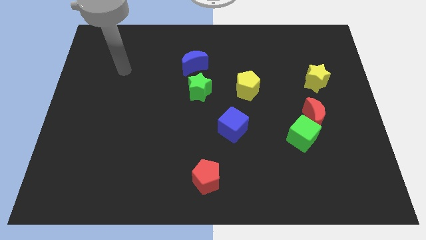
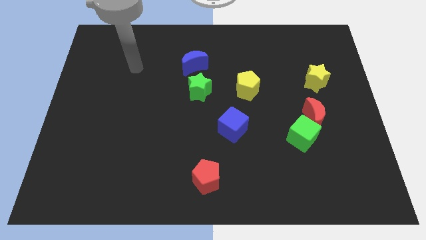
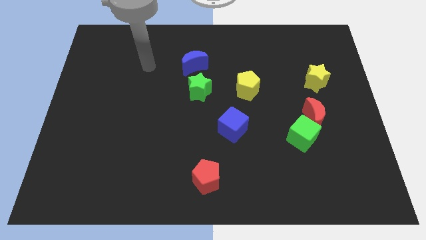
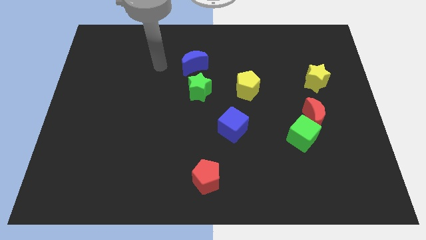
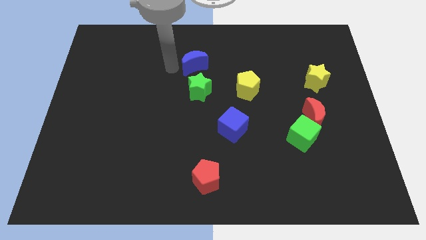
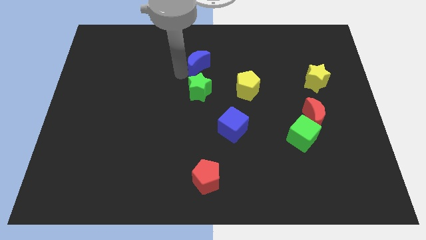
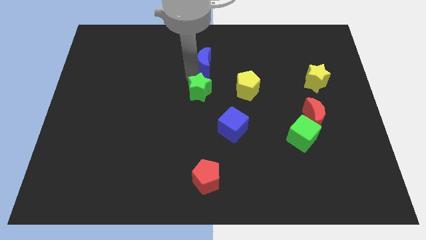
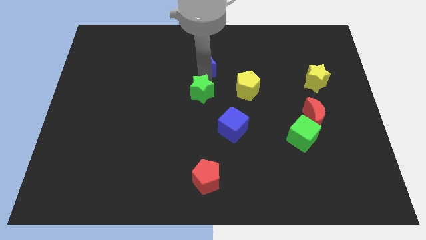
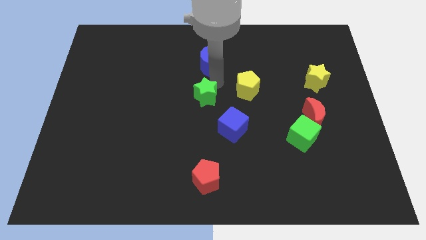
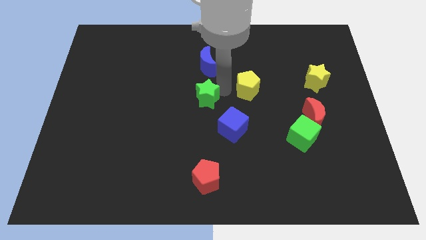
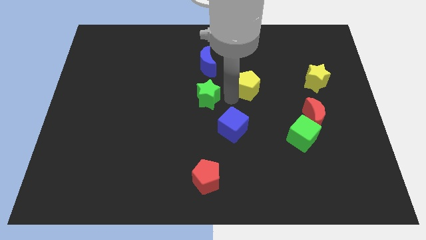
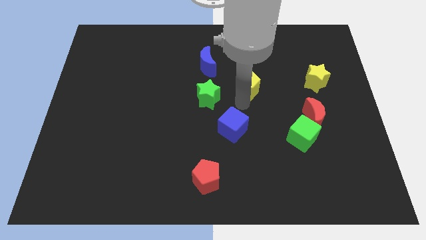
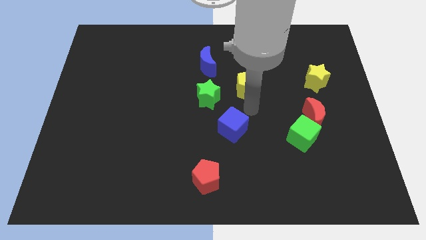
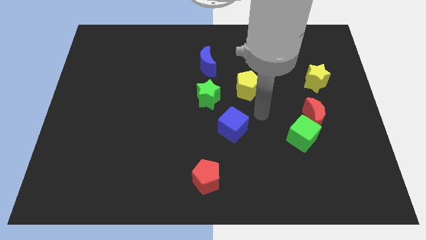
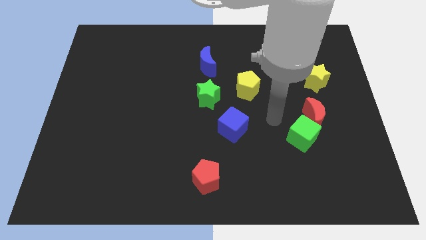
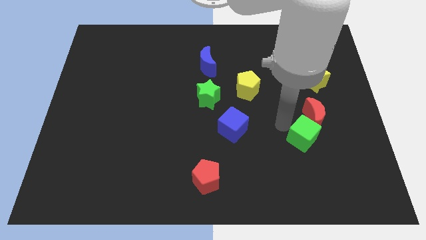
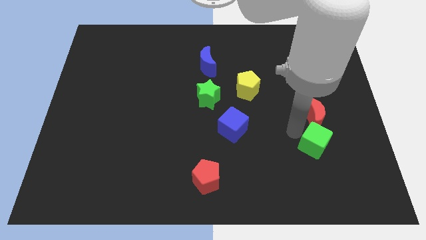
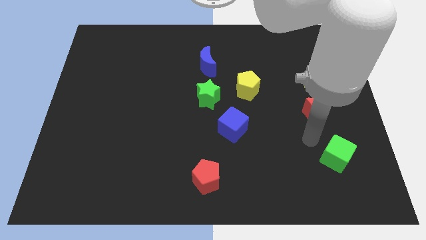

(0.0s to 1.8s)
pull the red moon apart from the green cube

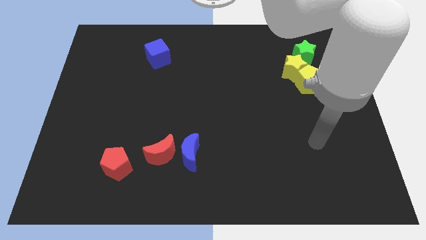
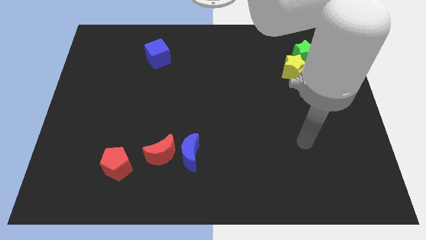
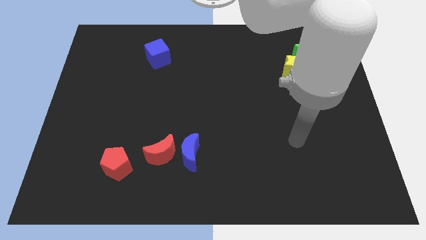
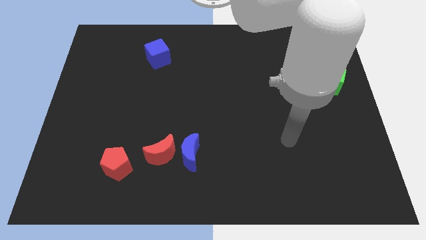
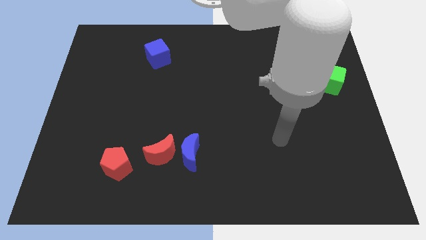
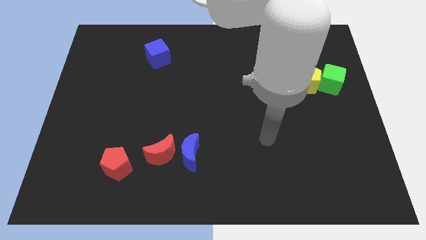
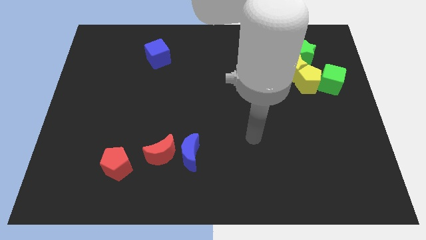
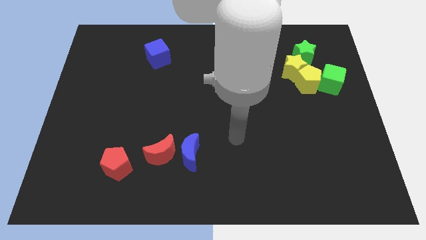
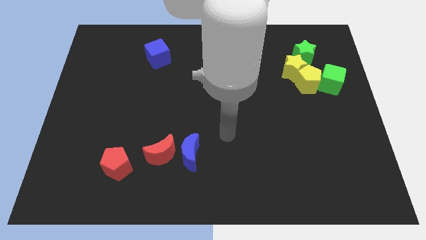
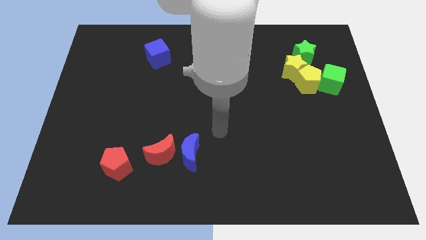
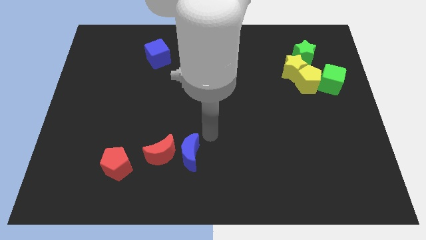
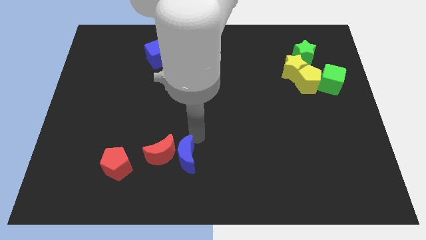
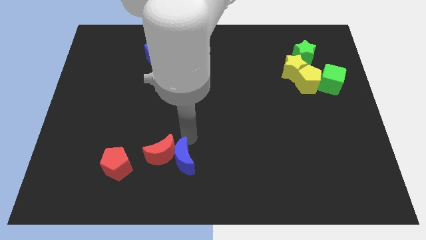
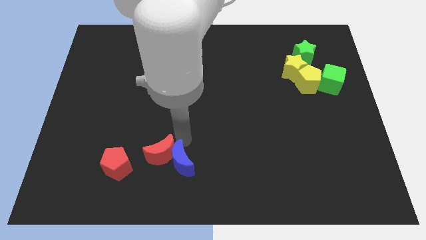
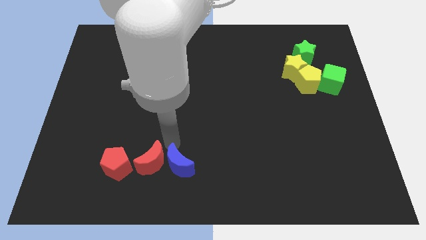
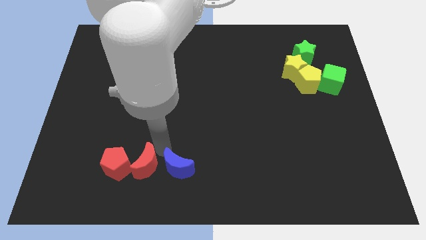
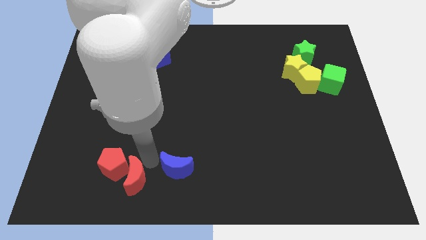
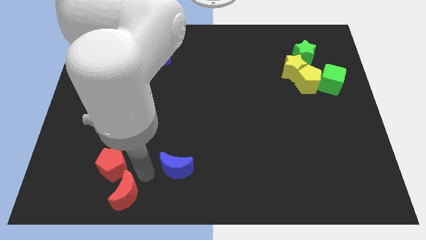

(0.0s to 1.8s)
pull the blue moon apart from the red moon

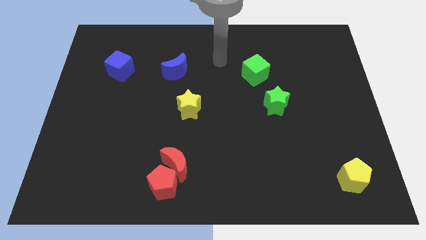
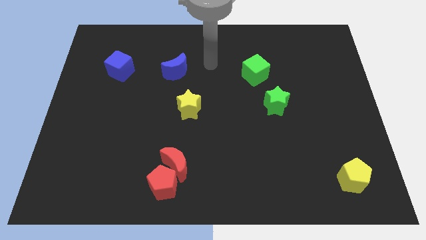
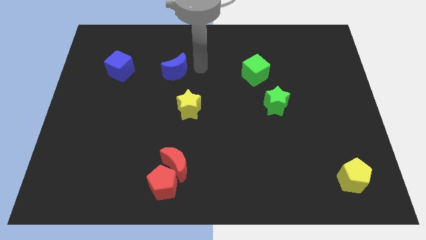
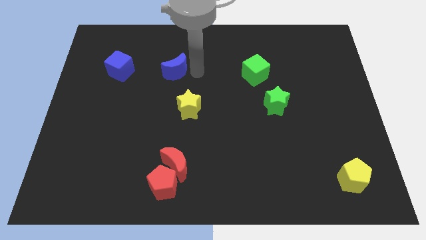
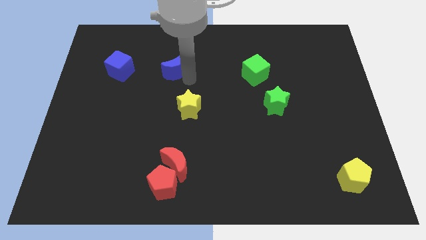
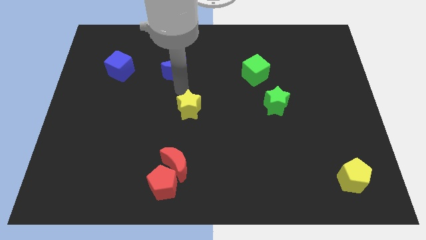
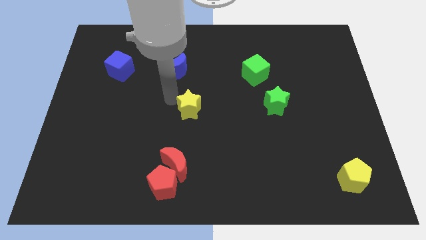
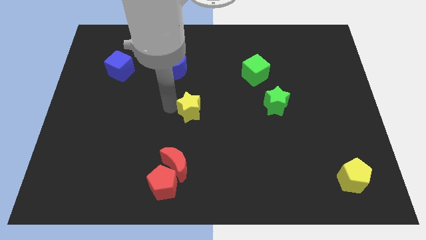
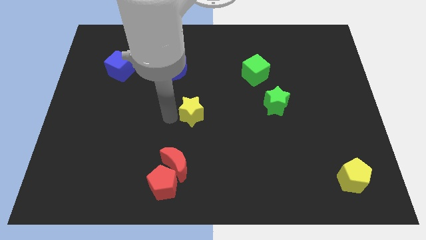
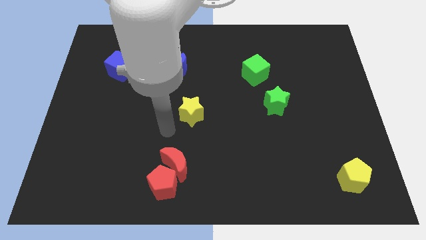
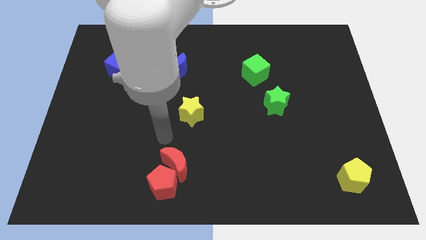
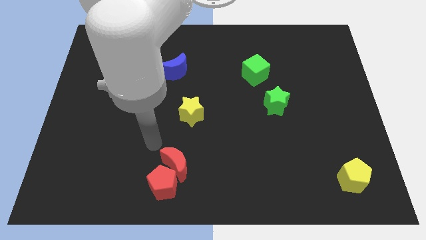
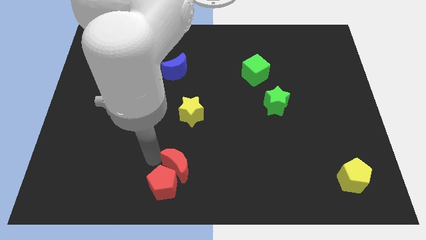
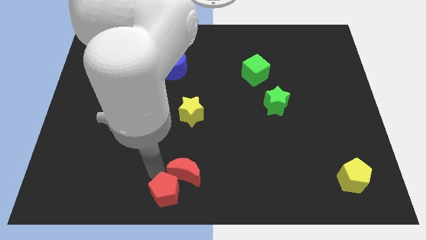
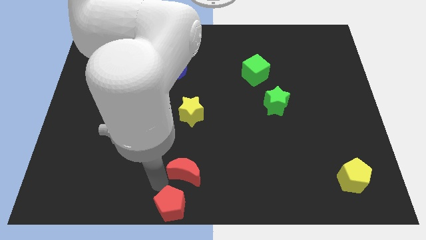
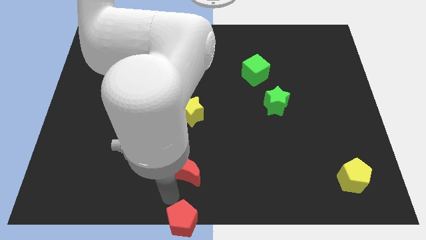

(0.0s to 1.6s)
move the red moon away from the red pentagon

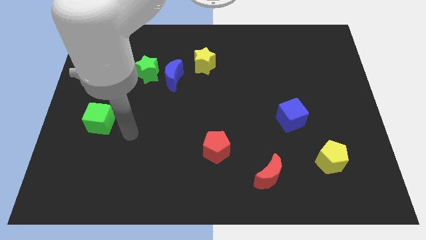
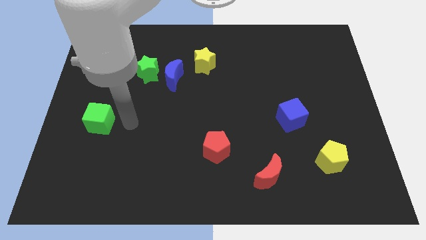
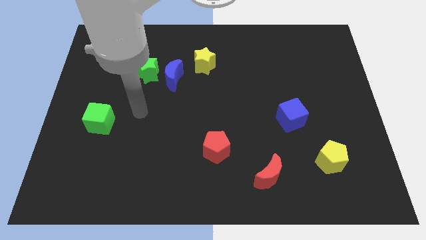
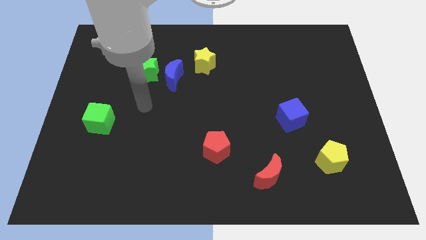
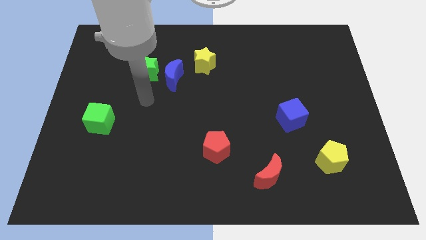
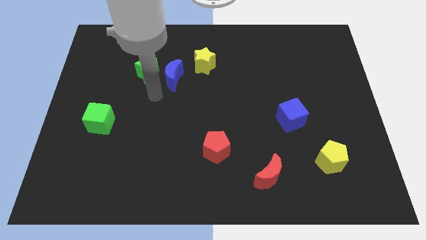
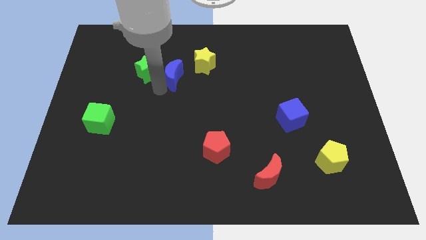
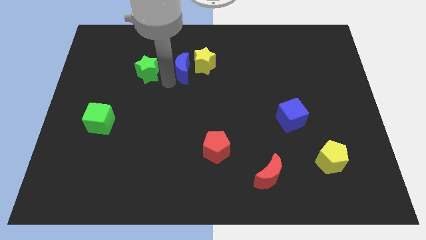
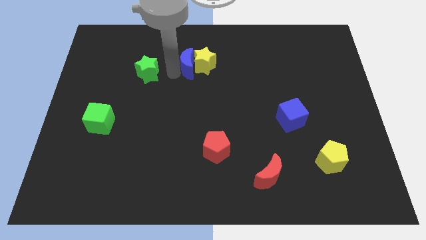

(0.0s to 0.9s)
pull the green star apart from the blue moon

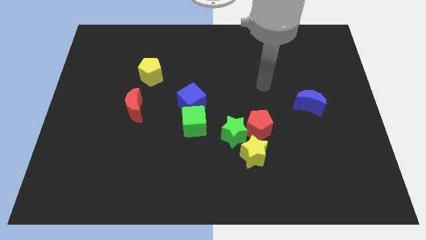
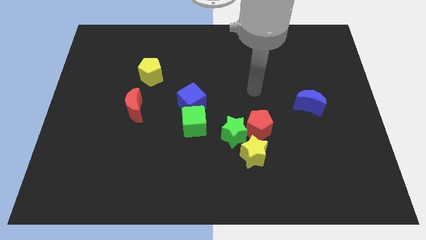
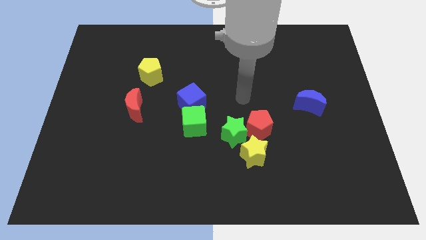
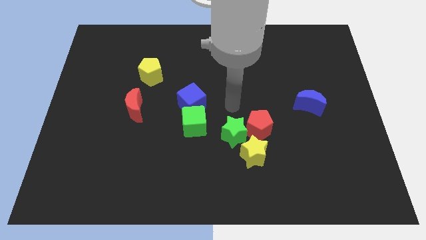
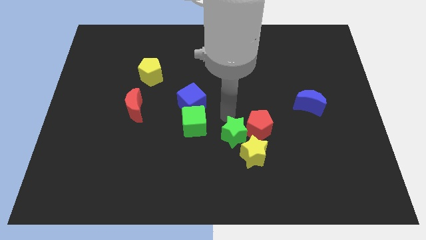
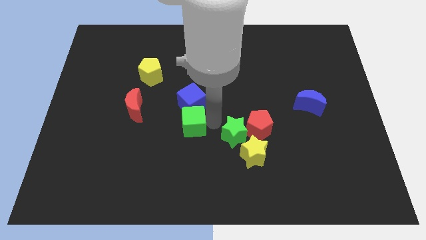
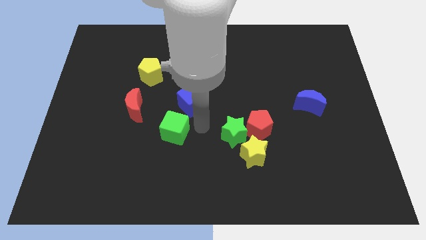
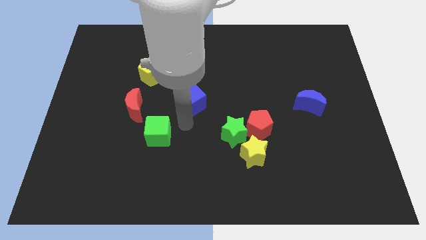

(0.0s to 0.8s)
separate the blue cube from the green cube

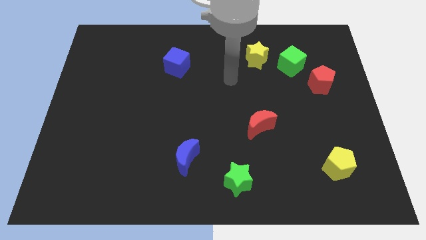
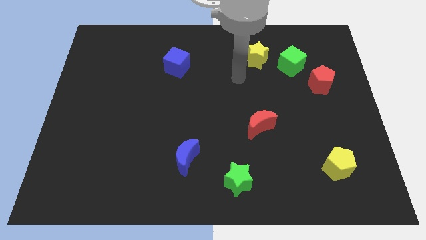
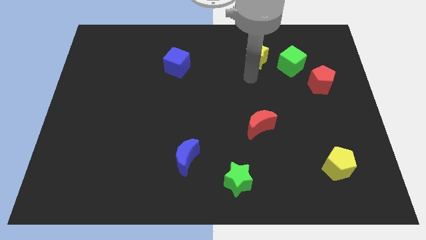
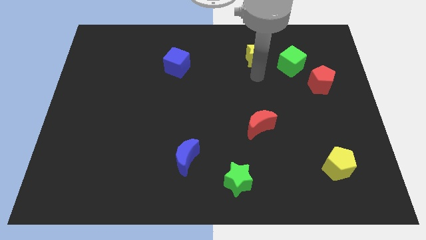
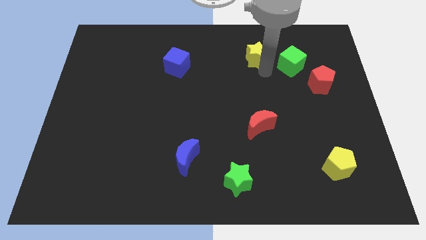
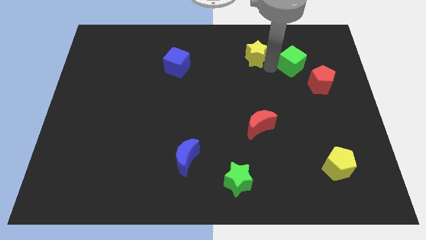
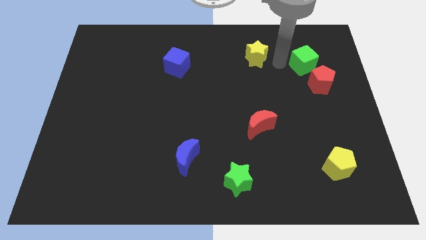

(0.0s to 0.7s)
move the yellow star away from the green cube

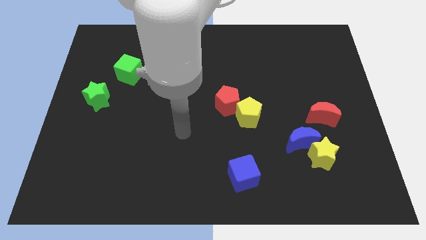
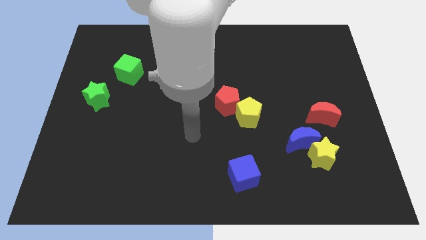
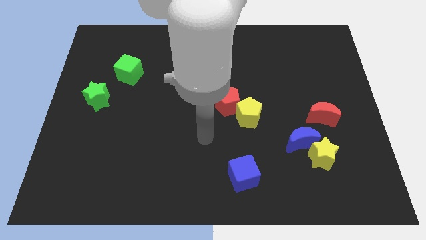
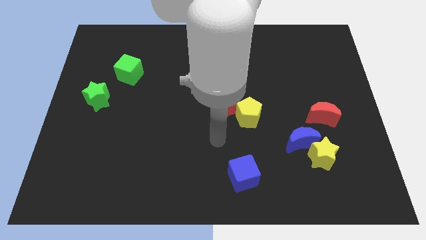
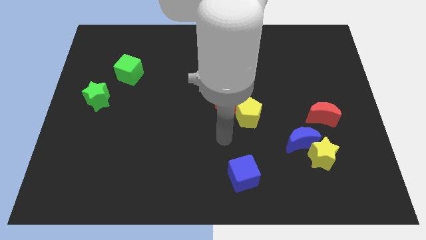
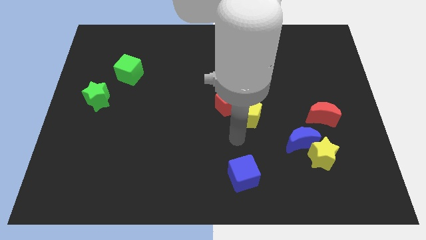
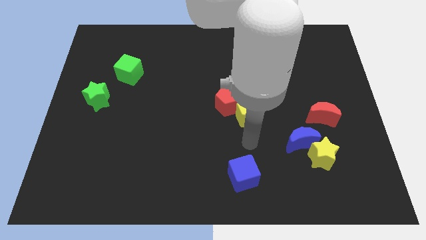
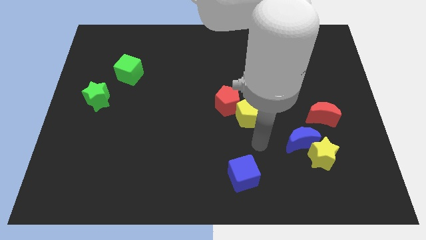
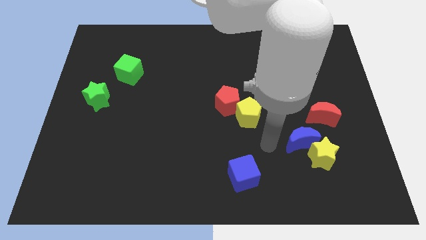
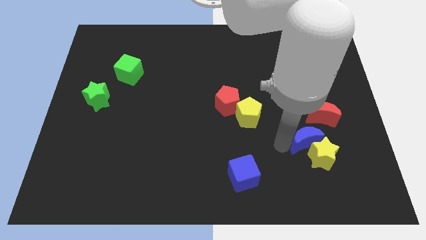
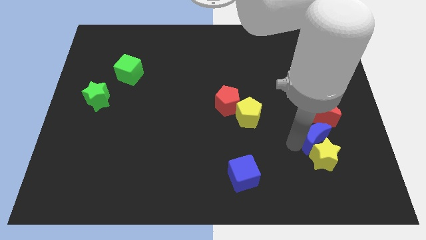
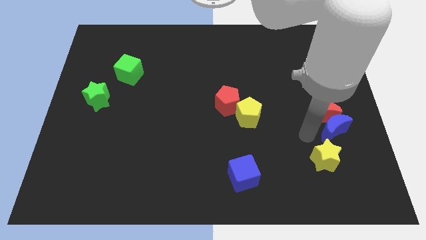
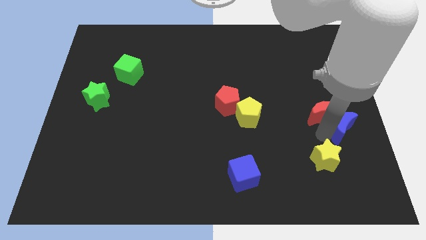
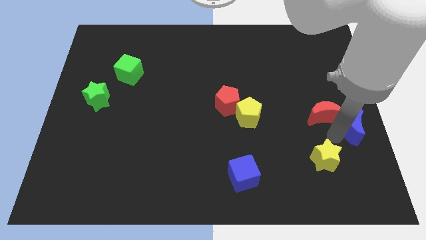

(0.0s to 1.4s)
separate the yellow star from the blue moon

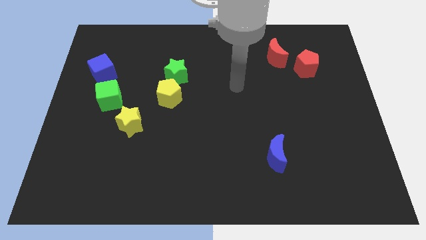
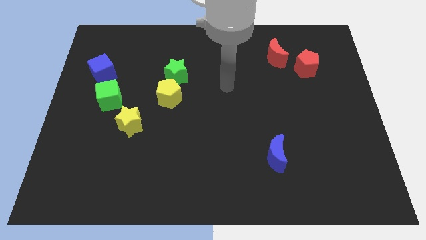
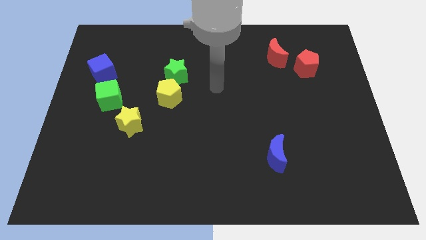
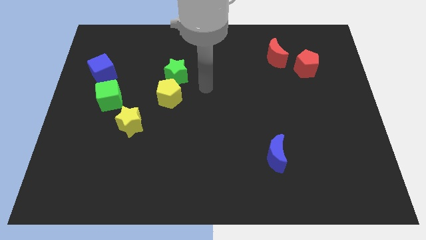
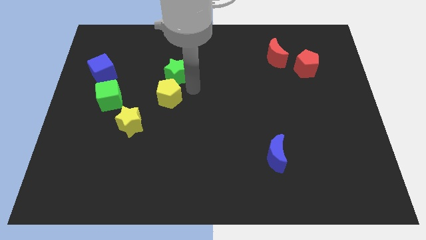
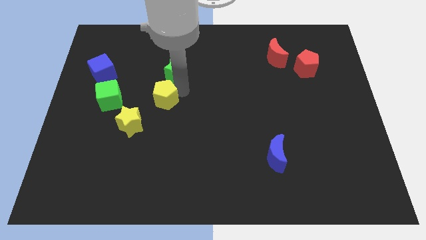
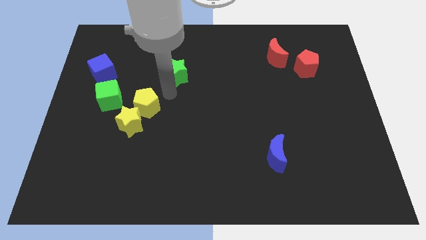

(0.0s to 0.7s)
move the green star away from the yellow pentagon
